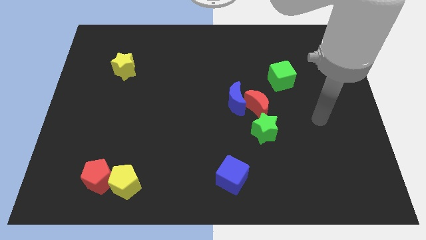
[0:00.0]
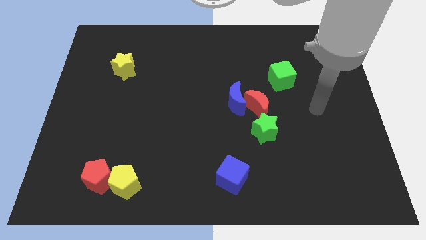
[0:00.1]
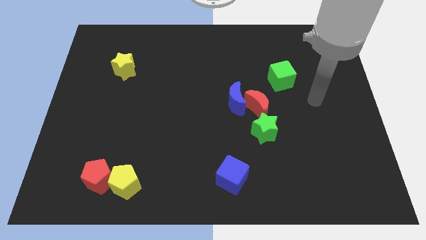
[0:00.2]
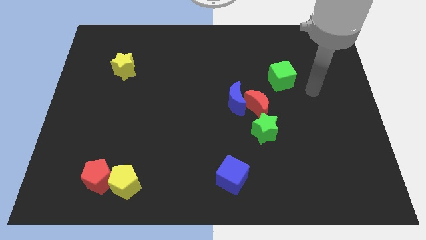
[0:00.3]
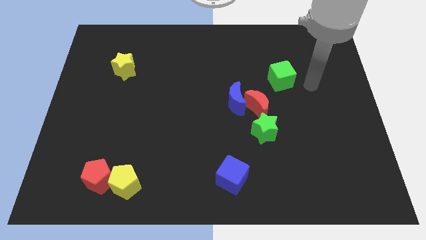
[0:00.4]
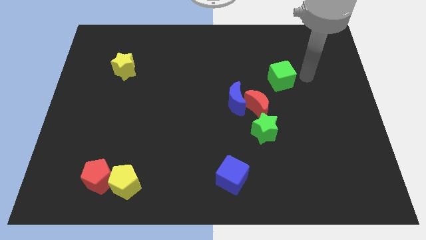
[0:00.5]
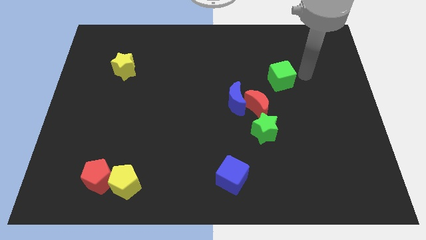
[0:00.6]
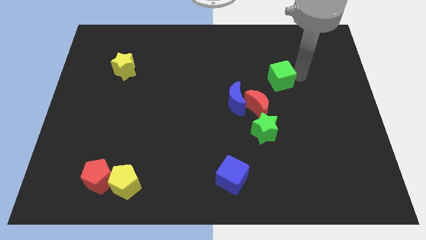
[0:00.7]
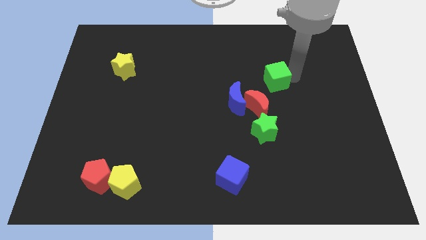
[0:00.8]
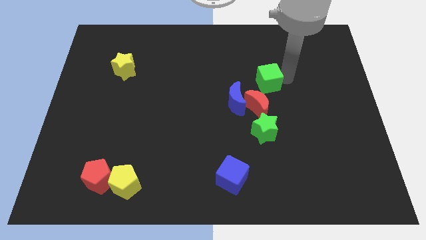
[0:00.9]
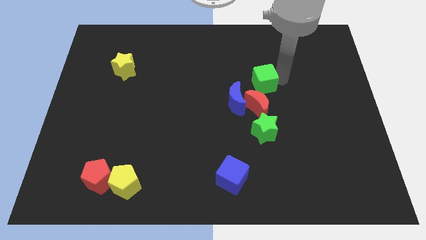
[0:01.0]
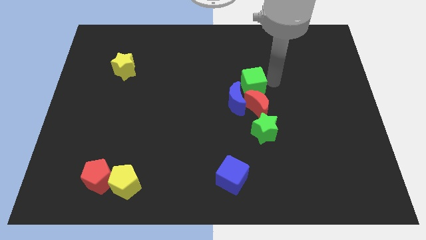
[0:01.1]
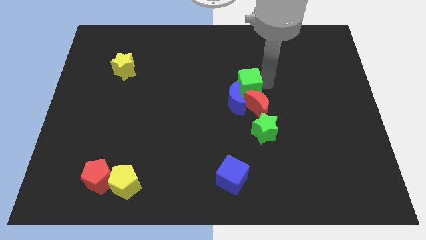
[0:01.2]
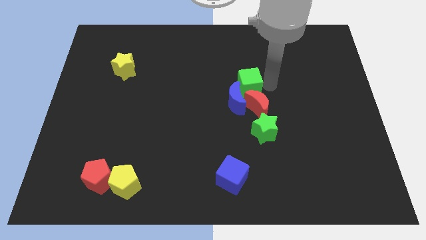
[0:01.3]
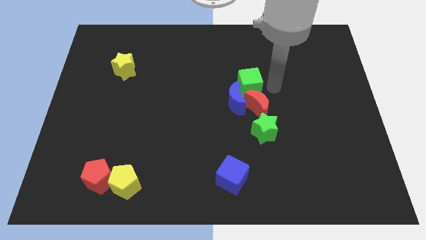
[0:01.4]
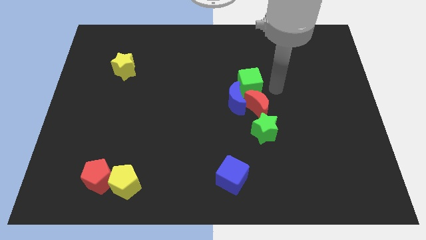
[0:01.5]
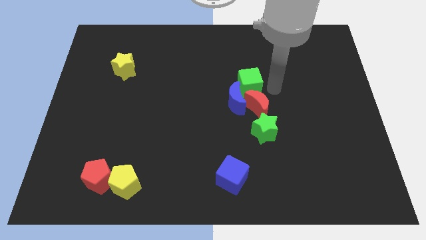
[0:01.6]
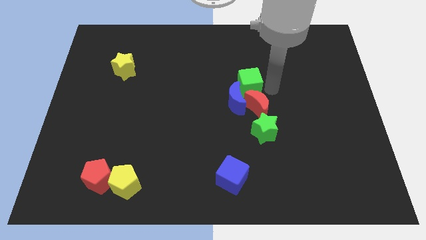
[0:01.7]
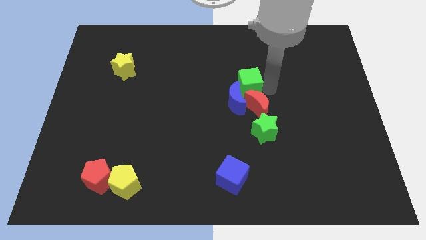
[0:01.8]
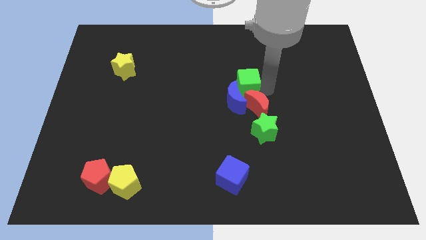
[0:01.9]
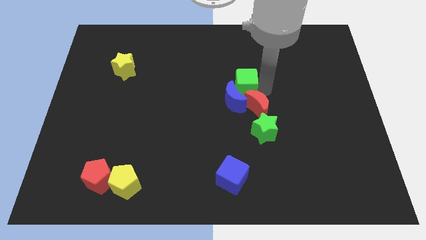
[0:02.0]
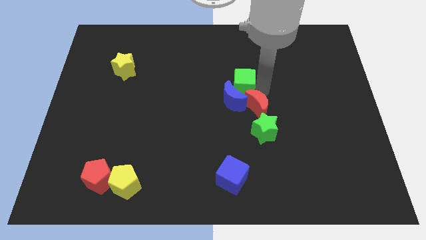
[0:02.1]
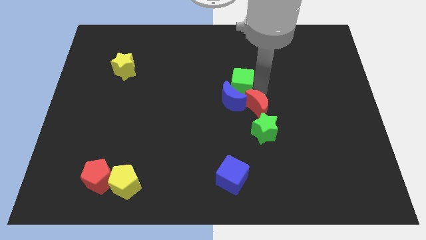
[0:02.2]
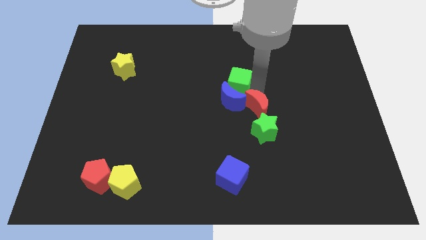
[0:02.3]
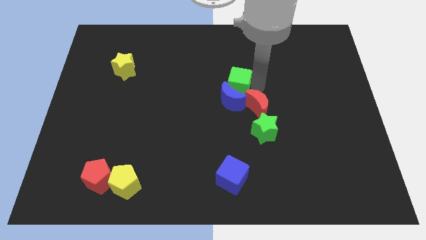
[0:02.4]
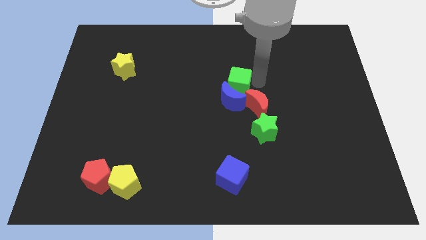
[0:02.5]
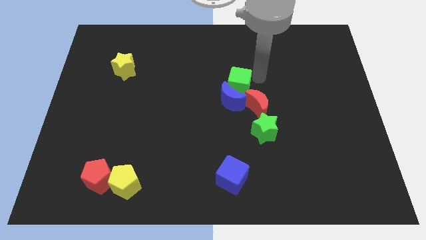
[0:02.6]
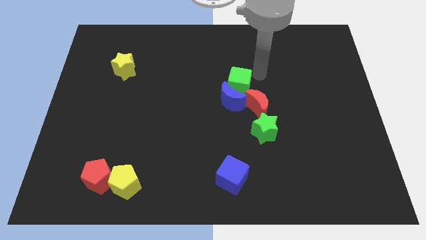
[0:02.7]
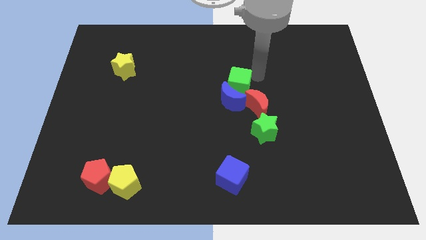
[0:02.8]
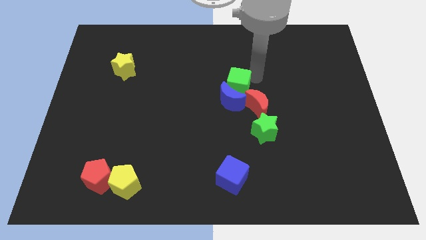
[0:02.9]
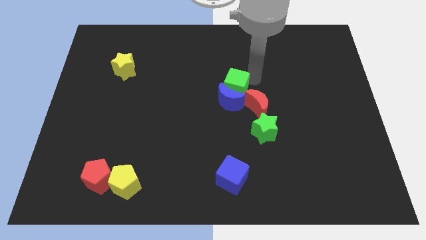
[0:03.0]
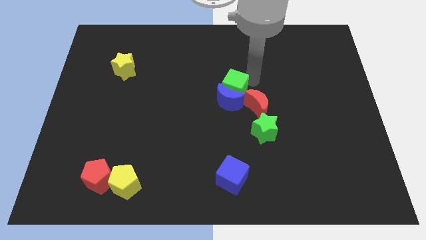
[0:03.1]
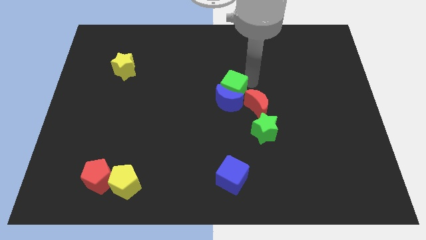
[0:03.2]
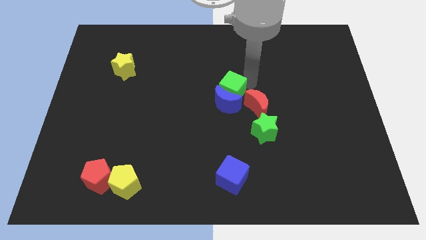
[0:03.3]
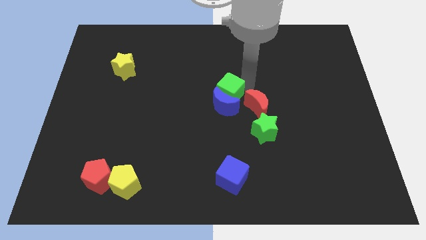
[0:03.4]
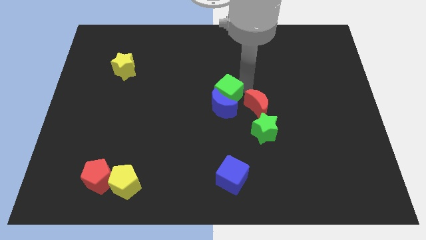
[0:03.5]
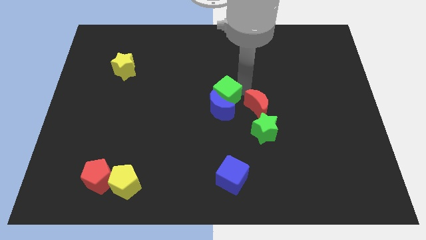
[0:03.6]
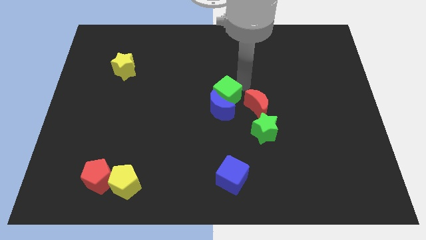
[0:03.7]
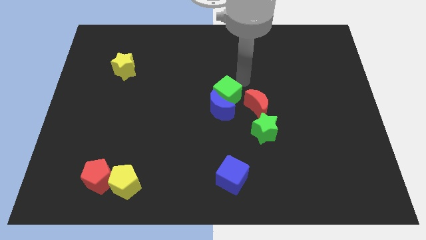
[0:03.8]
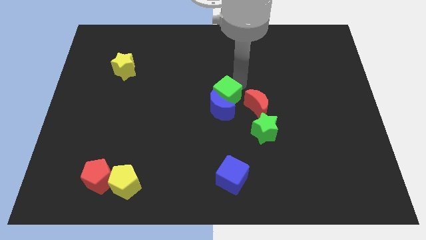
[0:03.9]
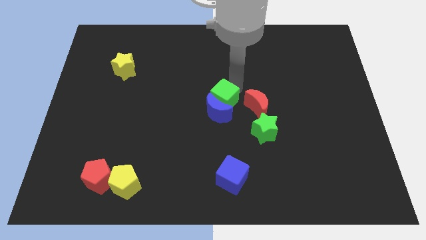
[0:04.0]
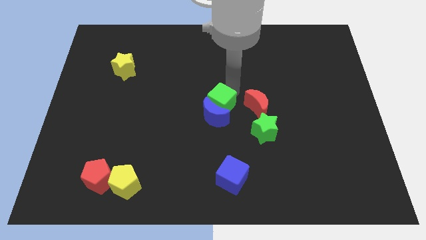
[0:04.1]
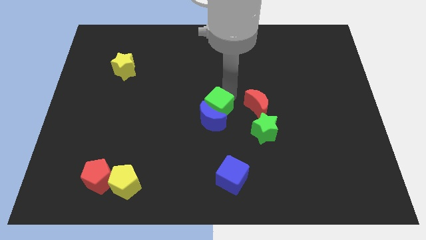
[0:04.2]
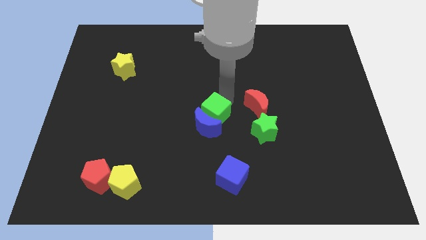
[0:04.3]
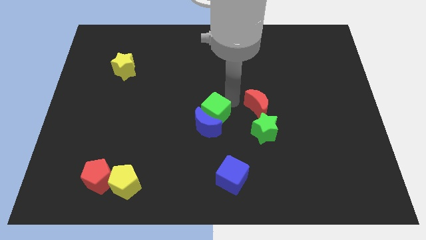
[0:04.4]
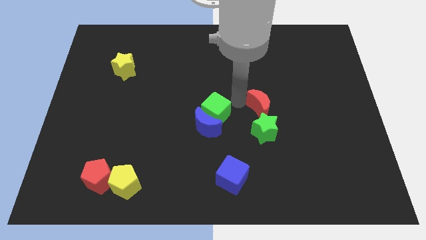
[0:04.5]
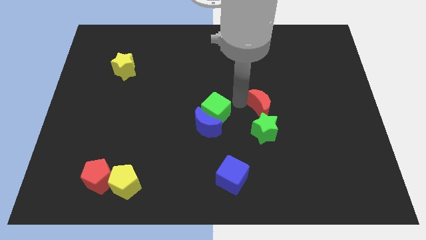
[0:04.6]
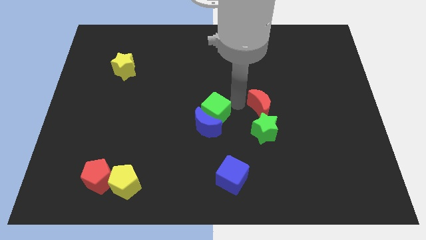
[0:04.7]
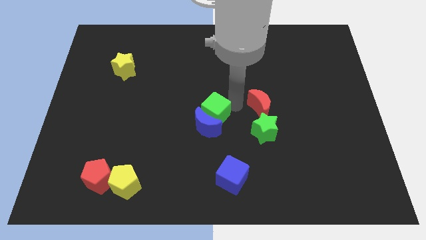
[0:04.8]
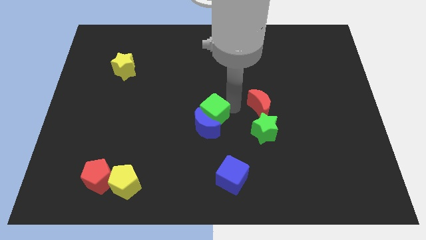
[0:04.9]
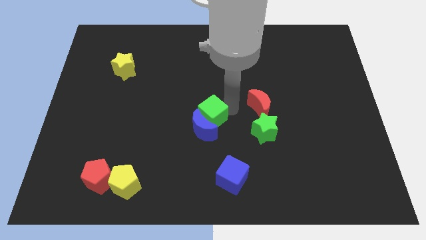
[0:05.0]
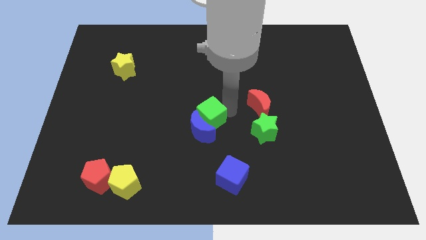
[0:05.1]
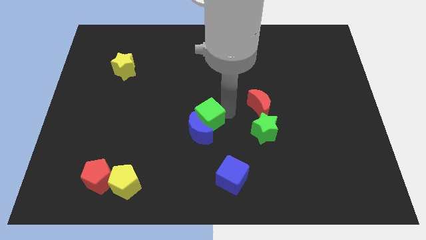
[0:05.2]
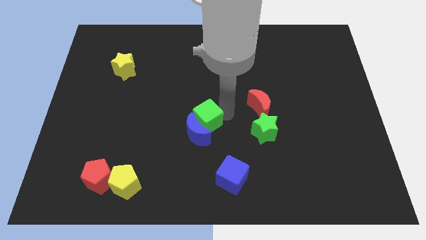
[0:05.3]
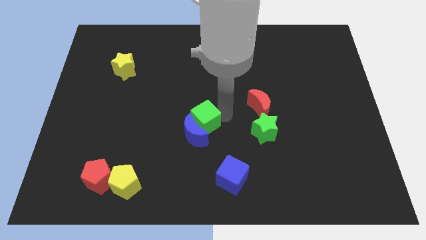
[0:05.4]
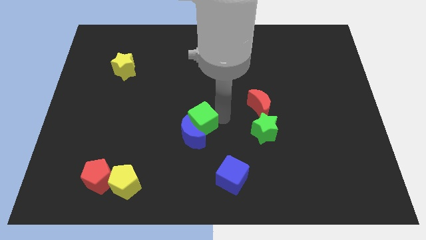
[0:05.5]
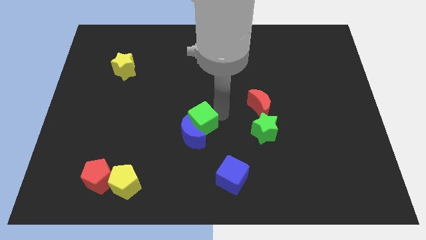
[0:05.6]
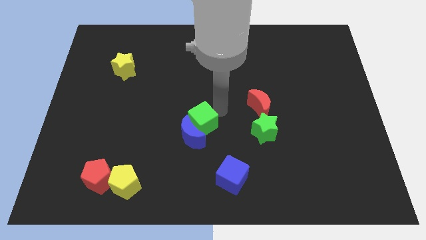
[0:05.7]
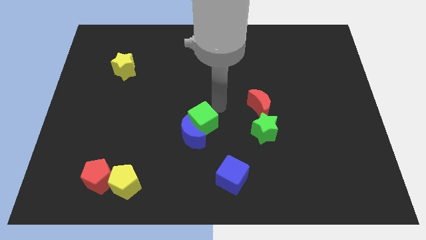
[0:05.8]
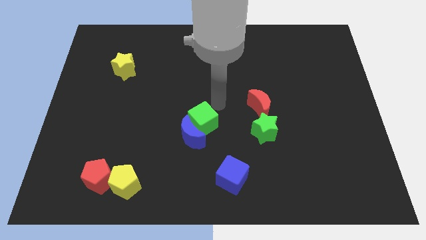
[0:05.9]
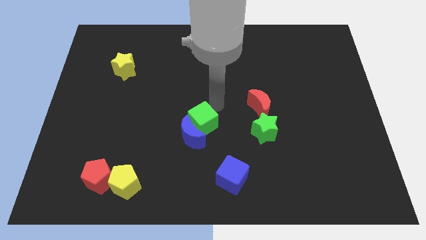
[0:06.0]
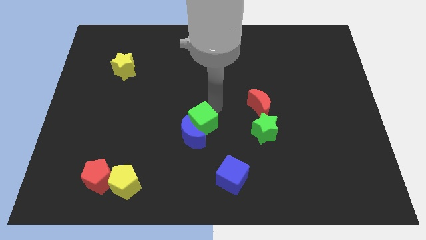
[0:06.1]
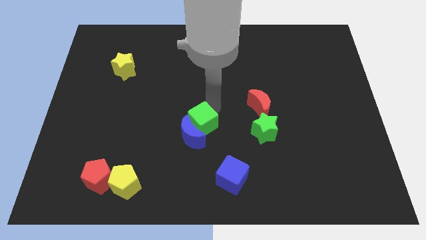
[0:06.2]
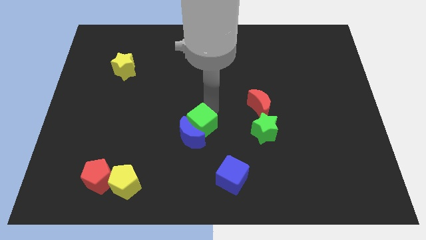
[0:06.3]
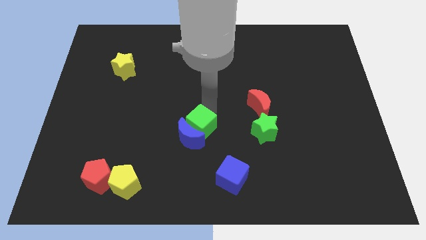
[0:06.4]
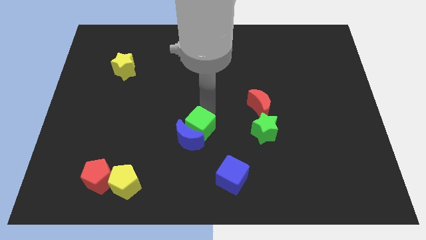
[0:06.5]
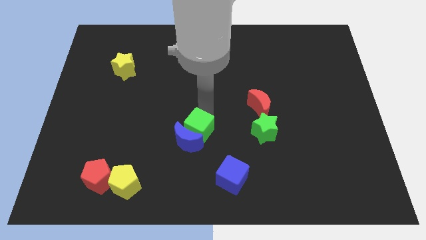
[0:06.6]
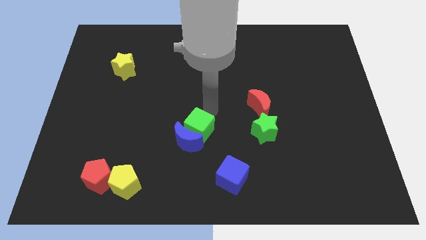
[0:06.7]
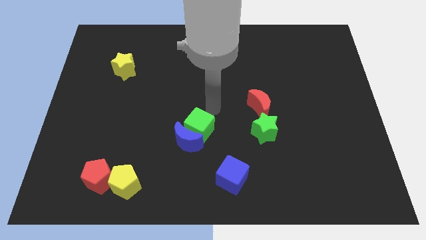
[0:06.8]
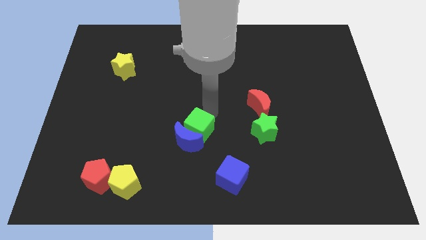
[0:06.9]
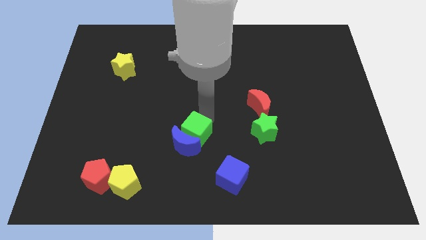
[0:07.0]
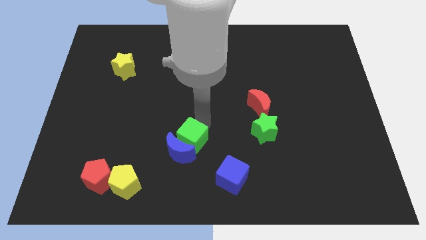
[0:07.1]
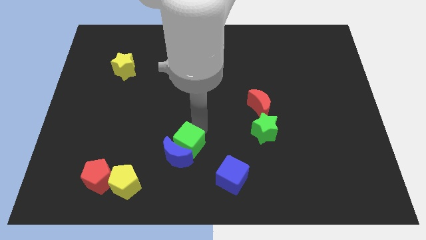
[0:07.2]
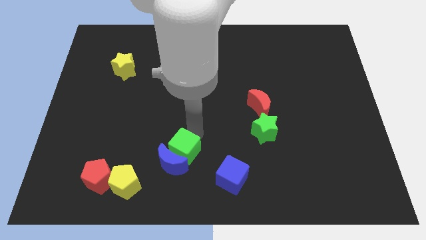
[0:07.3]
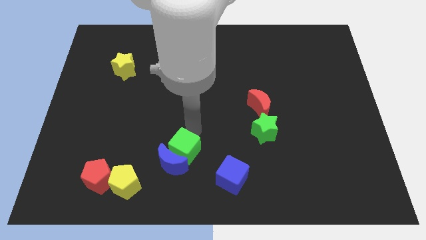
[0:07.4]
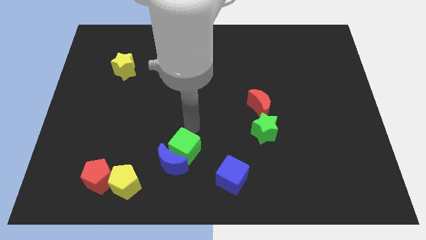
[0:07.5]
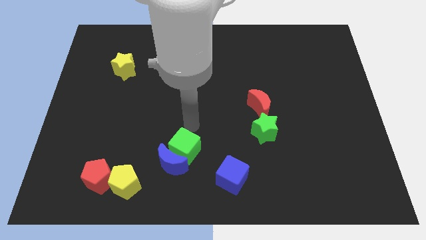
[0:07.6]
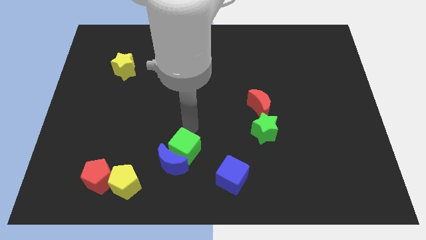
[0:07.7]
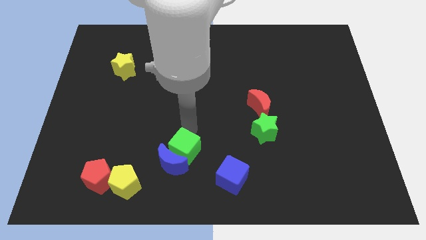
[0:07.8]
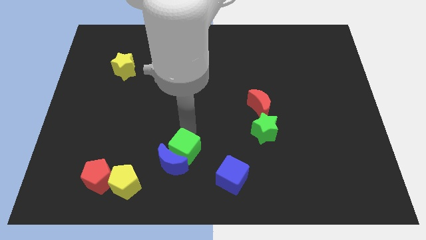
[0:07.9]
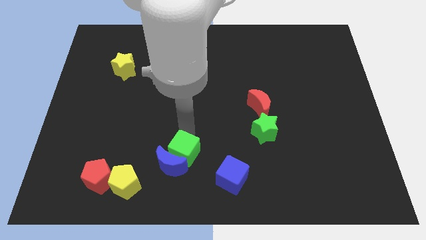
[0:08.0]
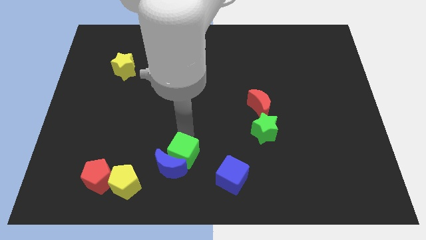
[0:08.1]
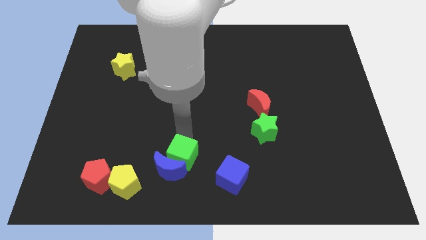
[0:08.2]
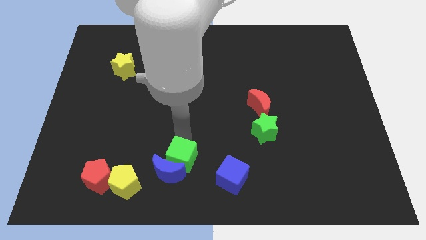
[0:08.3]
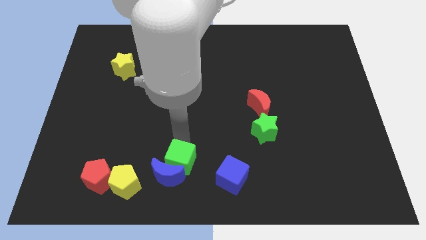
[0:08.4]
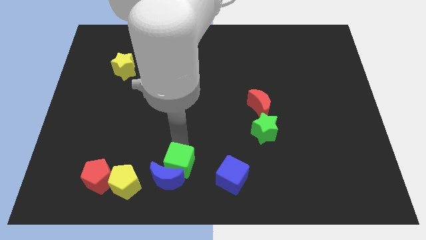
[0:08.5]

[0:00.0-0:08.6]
move the green cube to the right side of the yellow pentagon
